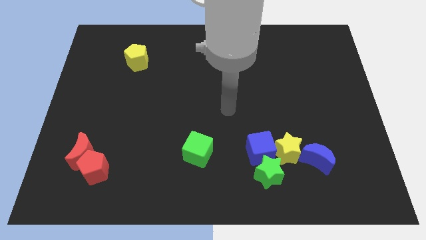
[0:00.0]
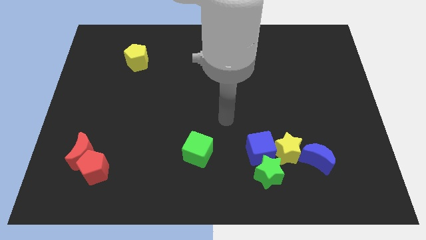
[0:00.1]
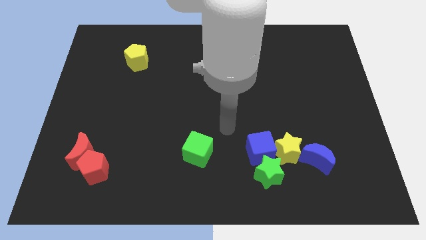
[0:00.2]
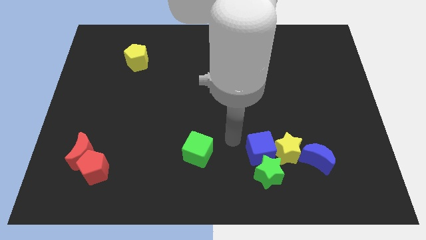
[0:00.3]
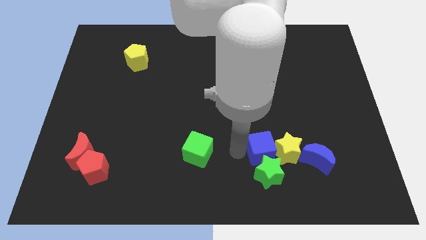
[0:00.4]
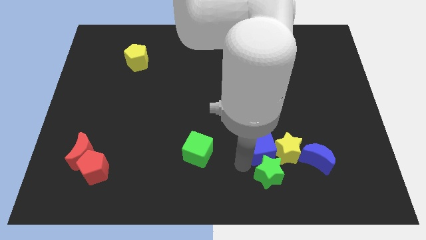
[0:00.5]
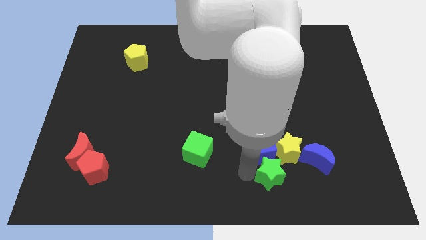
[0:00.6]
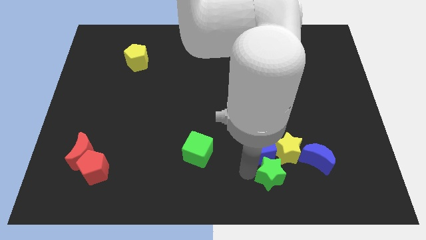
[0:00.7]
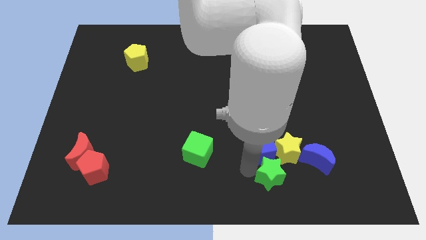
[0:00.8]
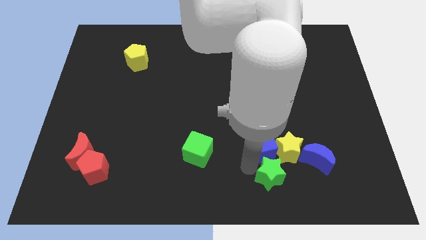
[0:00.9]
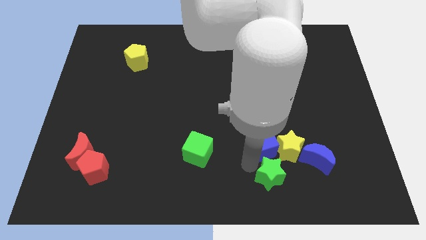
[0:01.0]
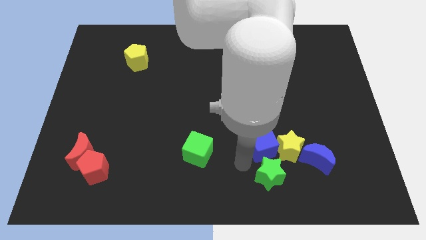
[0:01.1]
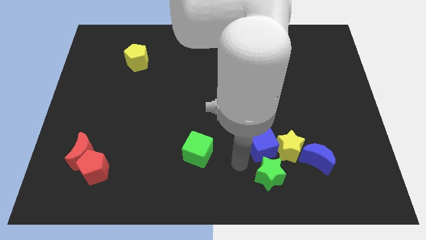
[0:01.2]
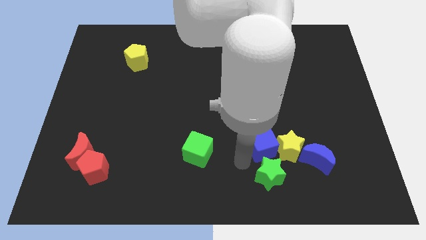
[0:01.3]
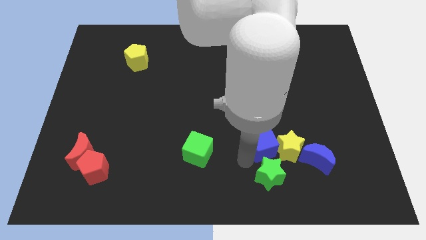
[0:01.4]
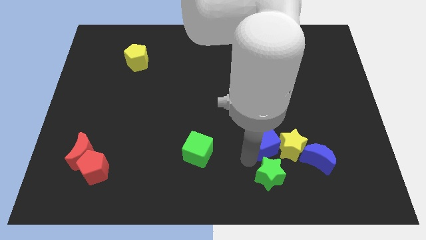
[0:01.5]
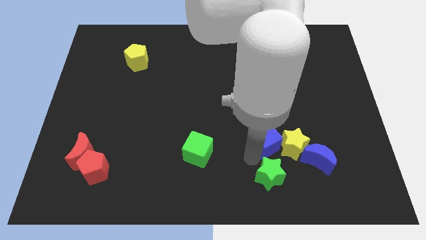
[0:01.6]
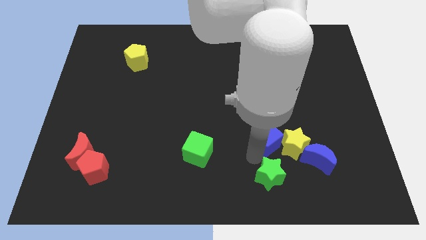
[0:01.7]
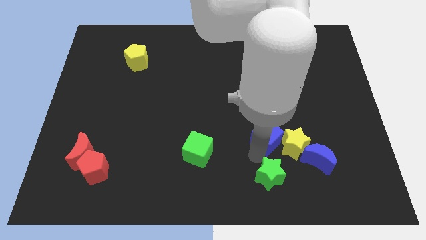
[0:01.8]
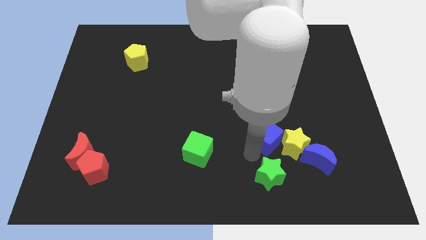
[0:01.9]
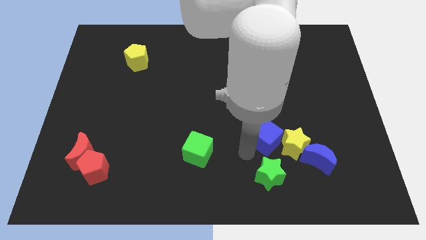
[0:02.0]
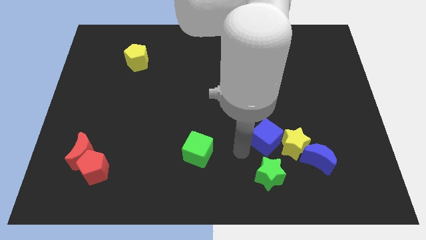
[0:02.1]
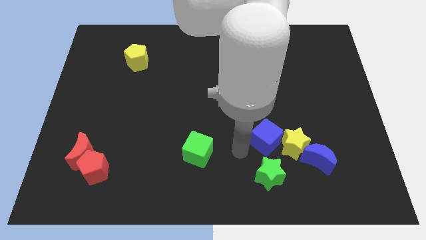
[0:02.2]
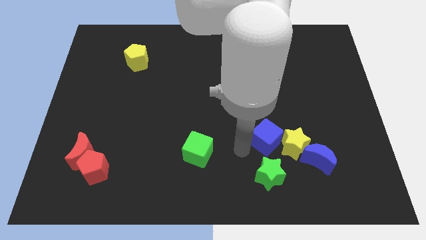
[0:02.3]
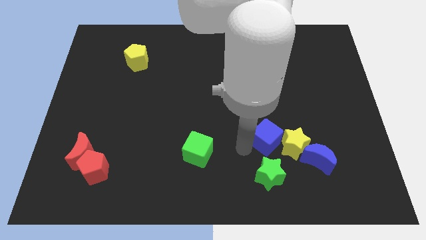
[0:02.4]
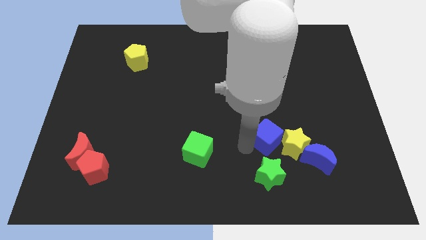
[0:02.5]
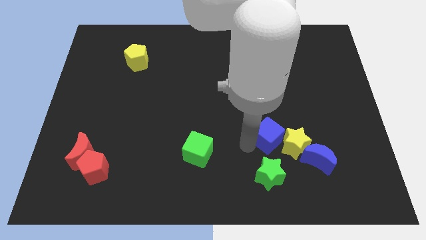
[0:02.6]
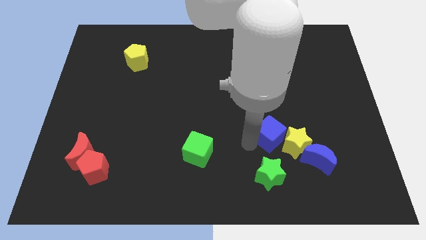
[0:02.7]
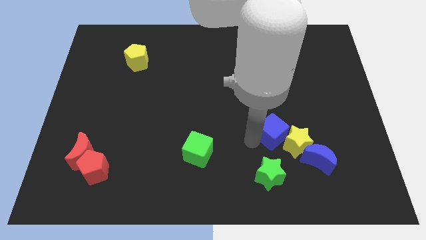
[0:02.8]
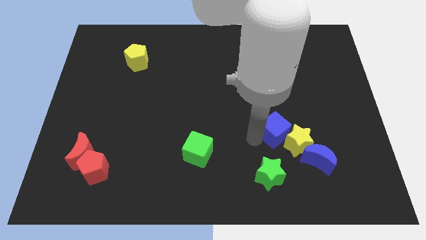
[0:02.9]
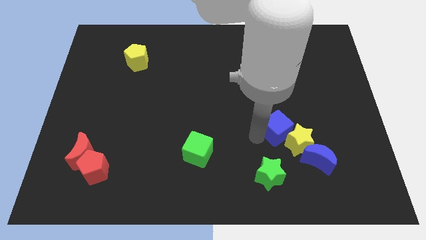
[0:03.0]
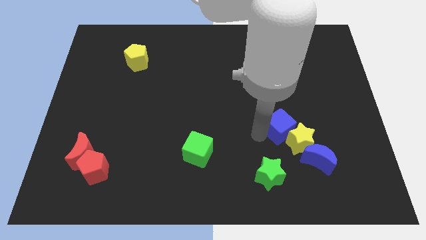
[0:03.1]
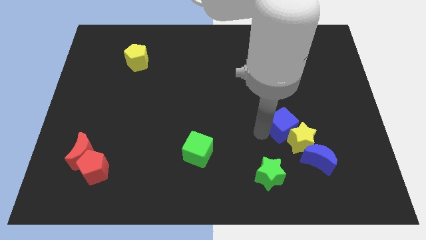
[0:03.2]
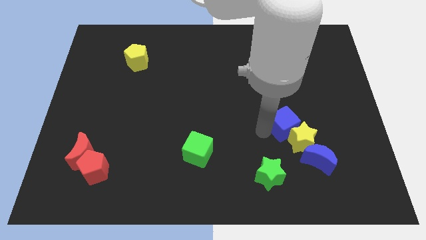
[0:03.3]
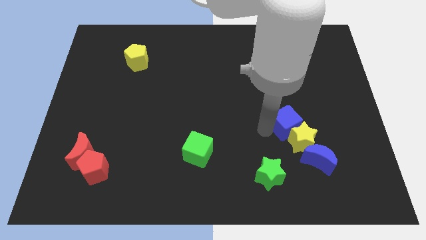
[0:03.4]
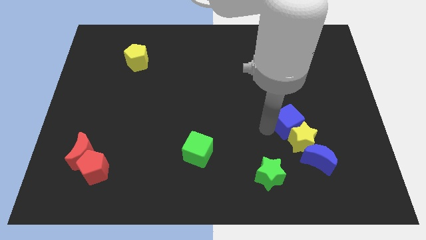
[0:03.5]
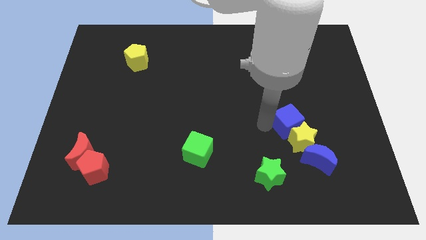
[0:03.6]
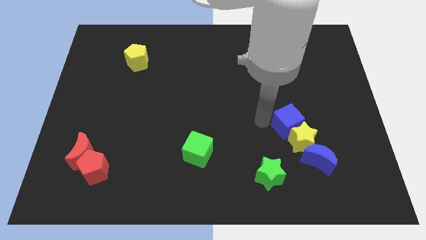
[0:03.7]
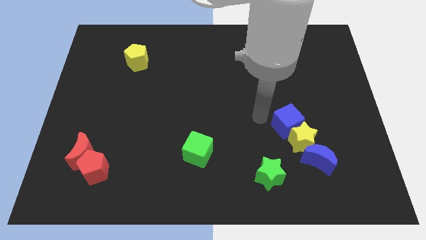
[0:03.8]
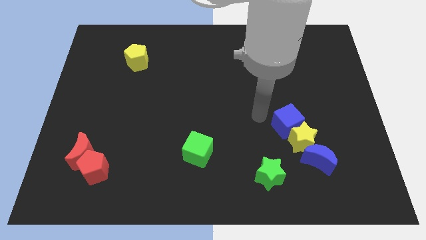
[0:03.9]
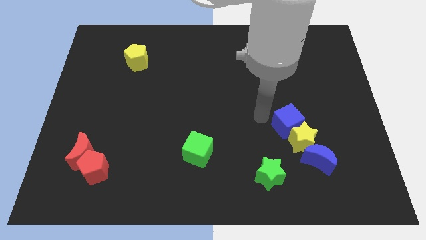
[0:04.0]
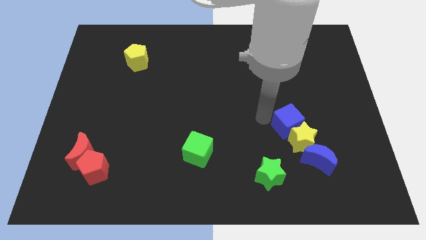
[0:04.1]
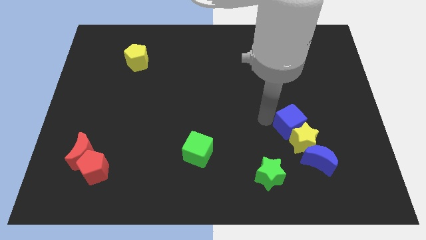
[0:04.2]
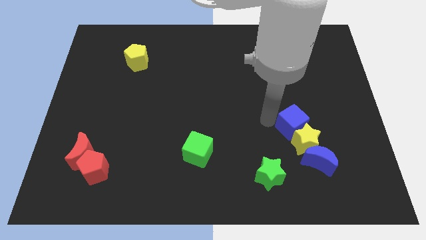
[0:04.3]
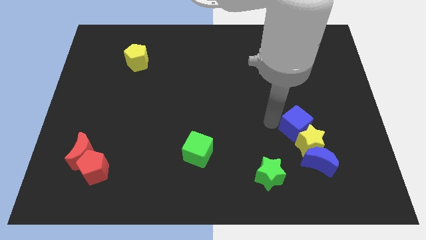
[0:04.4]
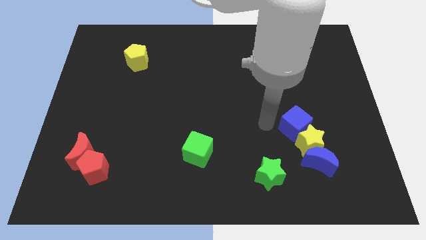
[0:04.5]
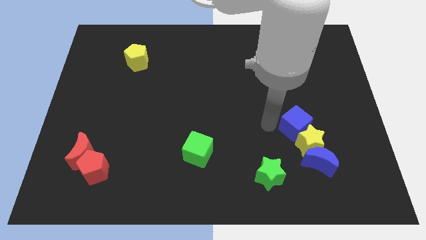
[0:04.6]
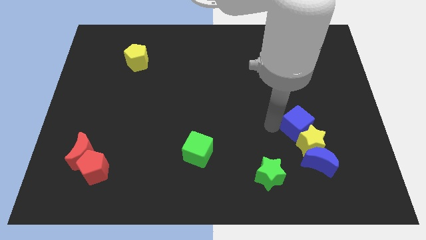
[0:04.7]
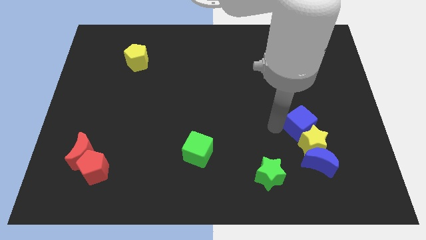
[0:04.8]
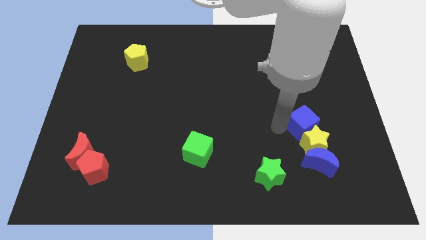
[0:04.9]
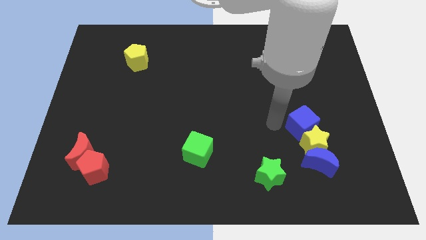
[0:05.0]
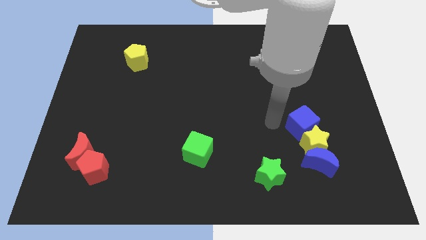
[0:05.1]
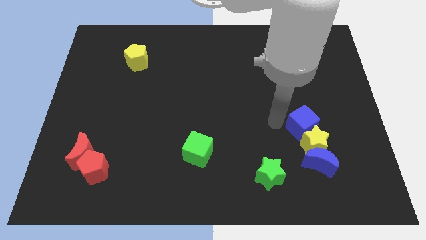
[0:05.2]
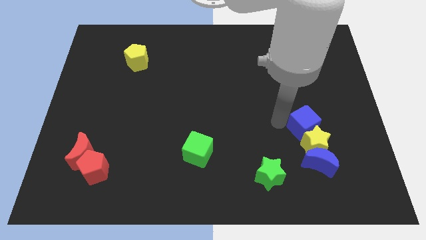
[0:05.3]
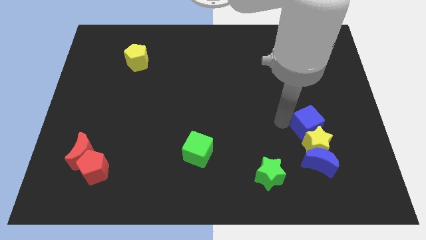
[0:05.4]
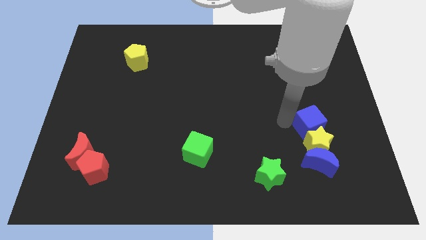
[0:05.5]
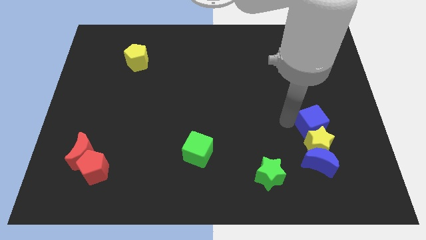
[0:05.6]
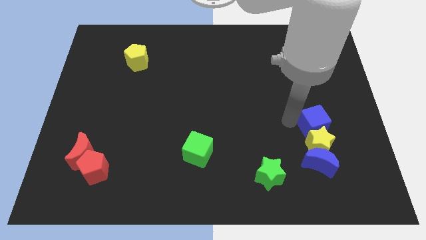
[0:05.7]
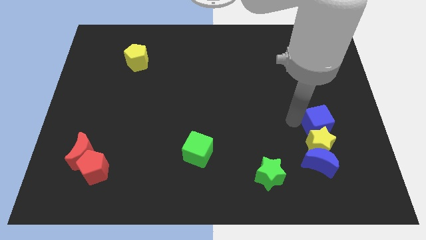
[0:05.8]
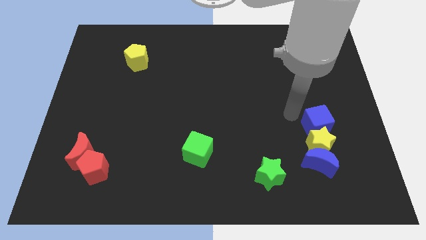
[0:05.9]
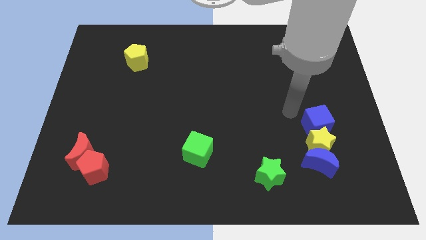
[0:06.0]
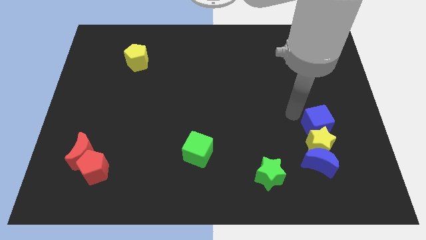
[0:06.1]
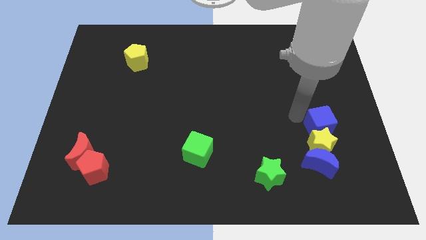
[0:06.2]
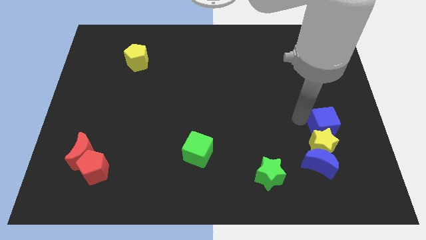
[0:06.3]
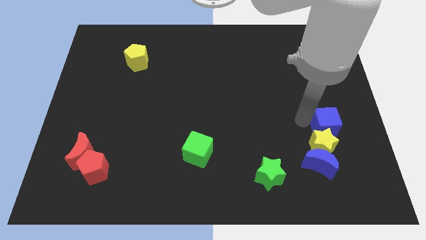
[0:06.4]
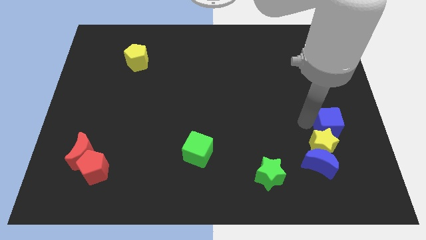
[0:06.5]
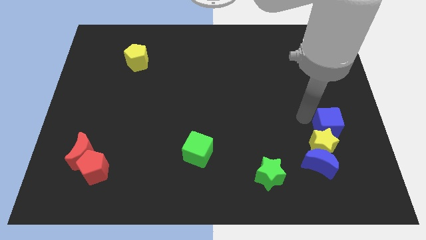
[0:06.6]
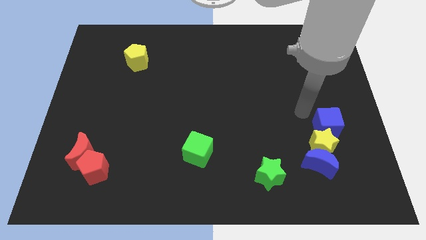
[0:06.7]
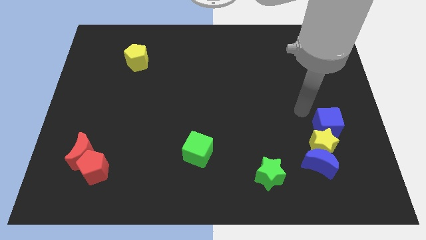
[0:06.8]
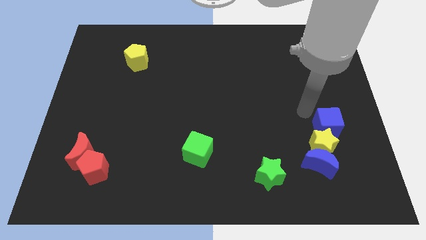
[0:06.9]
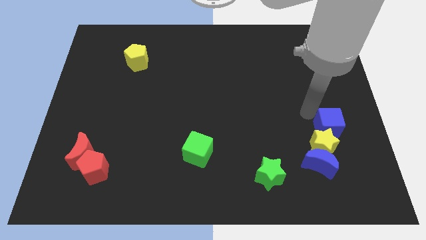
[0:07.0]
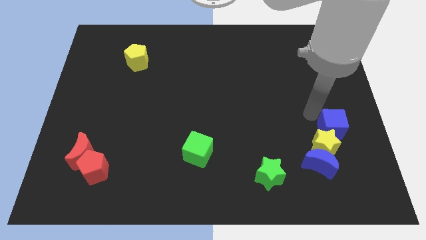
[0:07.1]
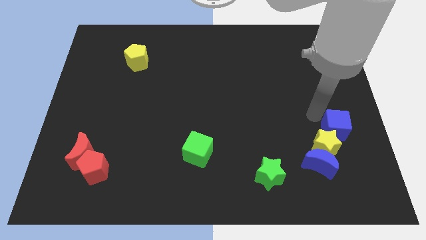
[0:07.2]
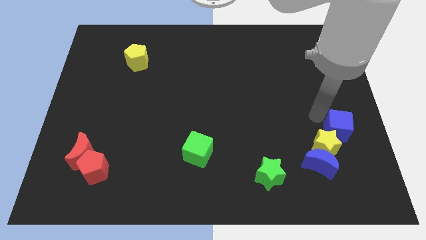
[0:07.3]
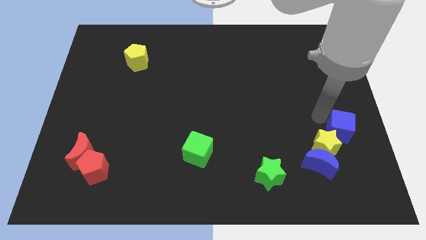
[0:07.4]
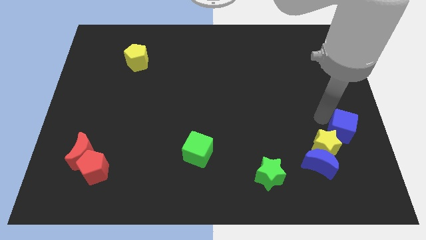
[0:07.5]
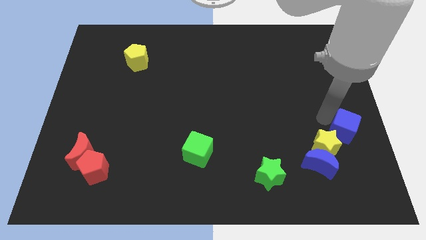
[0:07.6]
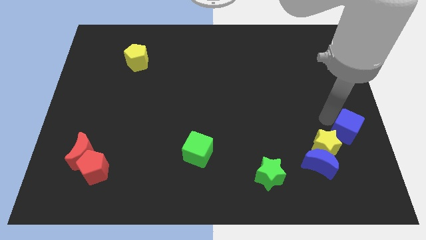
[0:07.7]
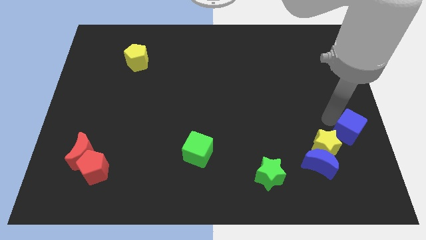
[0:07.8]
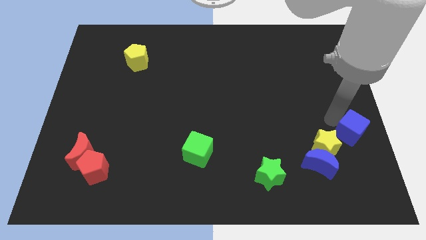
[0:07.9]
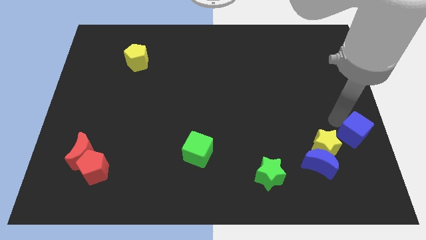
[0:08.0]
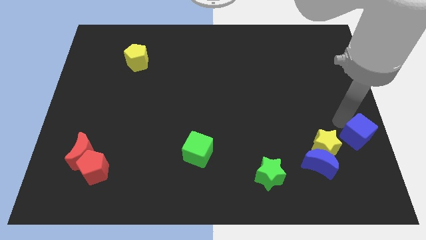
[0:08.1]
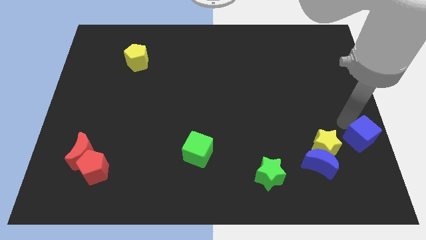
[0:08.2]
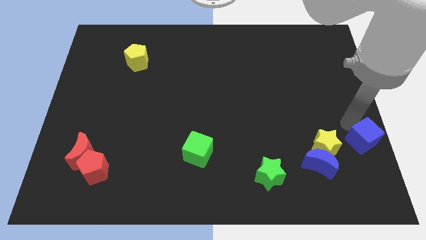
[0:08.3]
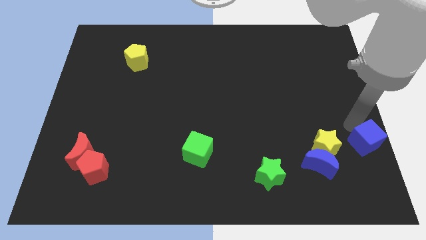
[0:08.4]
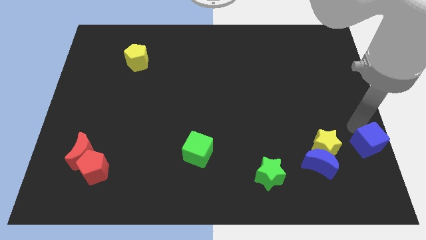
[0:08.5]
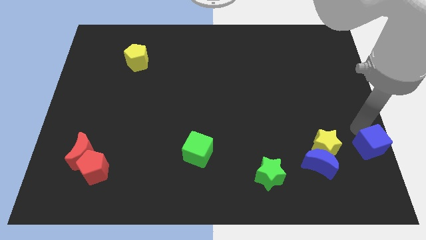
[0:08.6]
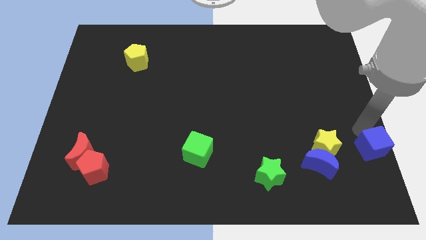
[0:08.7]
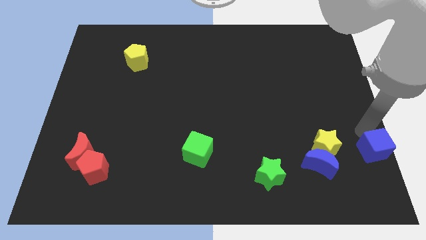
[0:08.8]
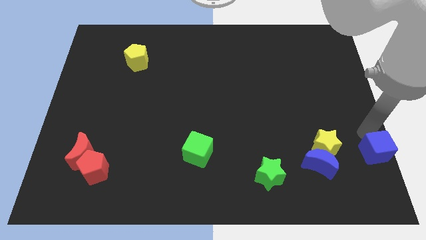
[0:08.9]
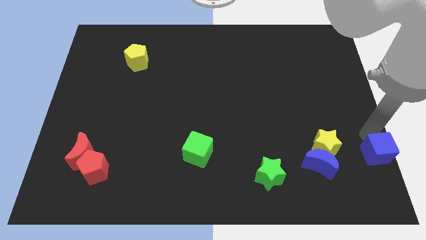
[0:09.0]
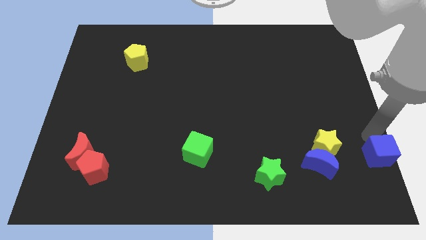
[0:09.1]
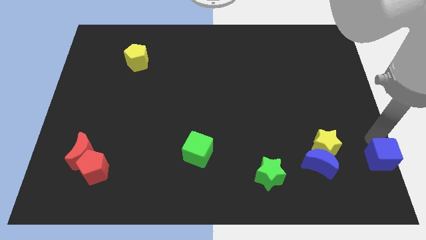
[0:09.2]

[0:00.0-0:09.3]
slide the blue cube to the bottom right of the board
